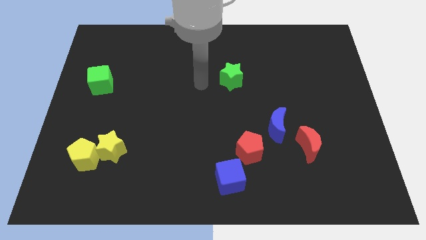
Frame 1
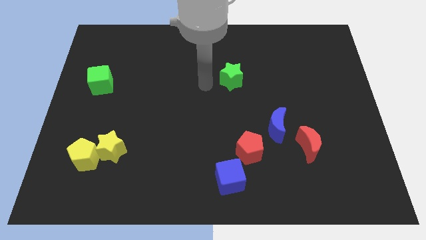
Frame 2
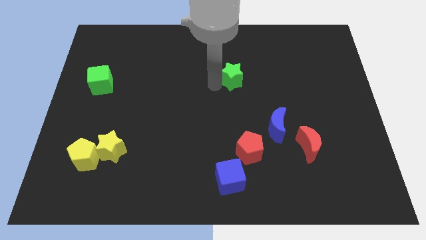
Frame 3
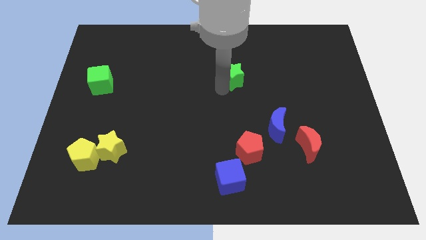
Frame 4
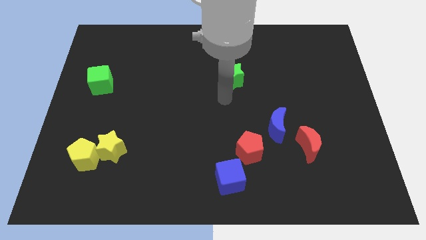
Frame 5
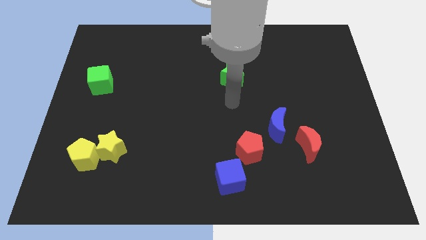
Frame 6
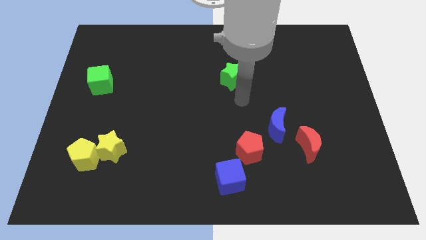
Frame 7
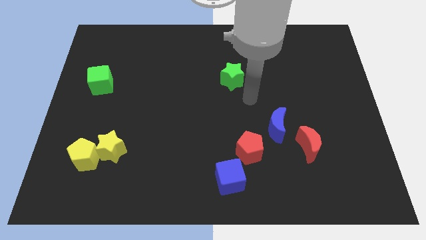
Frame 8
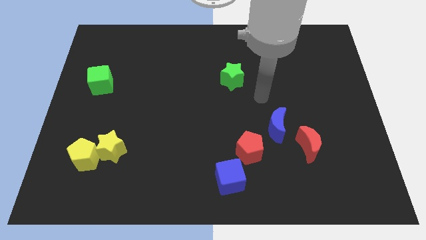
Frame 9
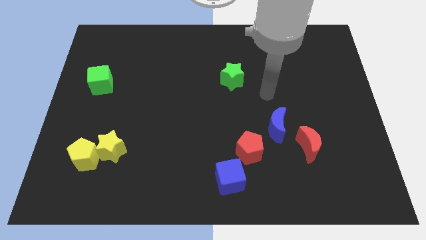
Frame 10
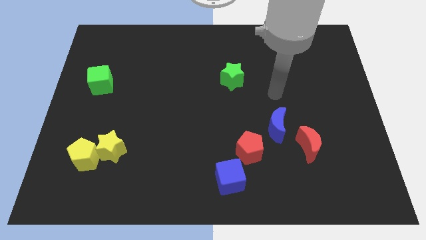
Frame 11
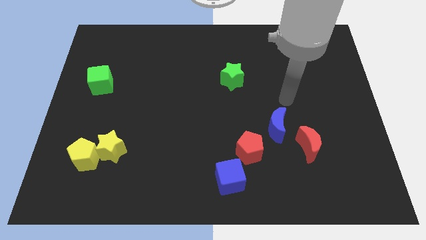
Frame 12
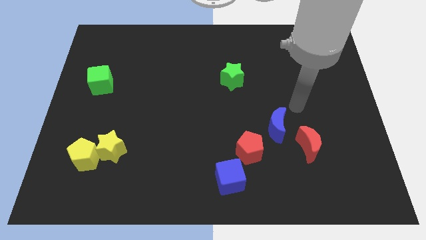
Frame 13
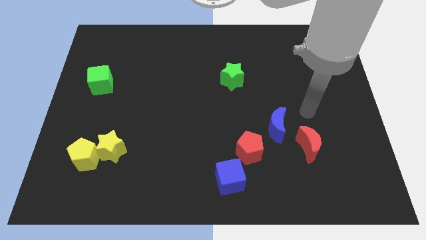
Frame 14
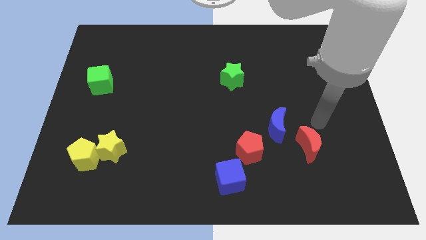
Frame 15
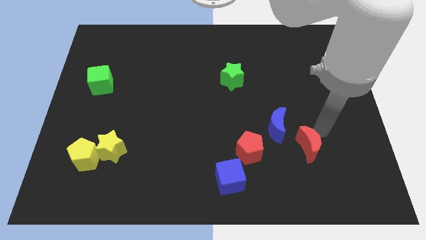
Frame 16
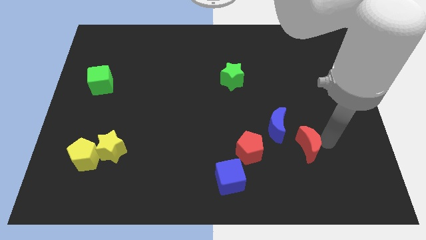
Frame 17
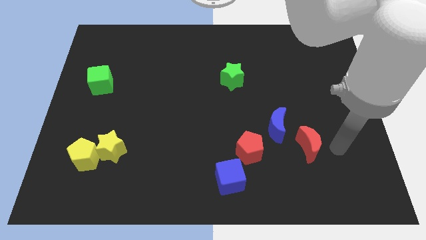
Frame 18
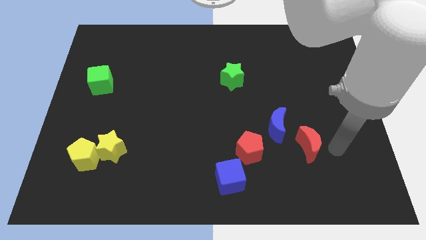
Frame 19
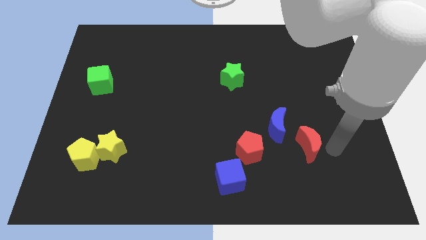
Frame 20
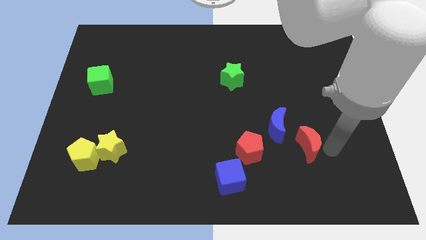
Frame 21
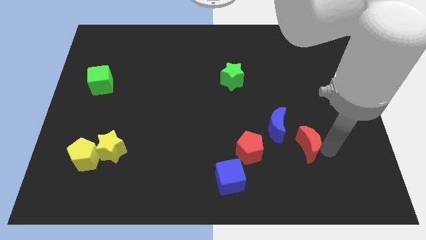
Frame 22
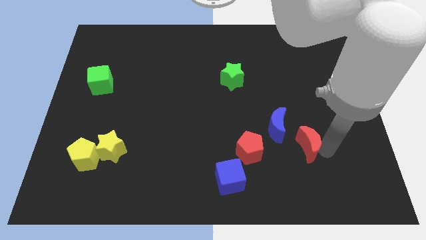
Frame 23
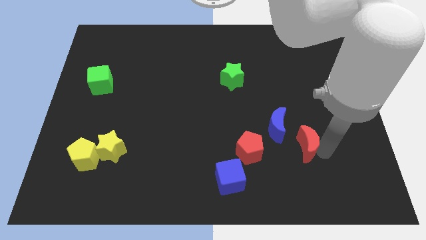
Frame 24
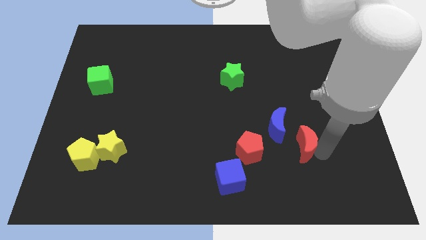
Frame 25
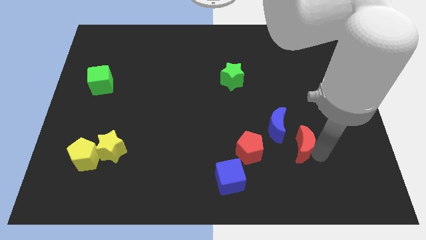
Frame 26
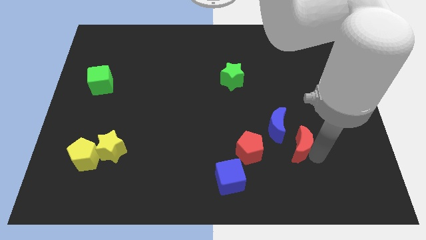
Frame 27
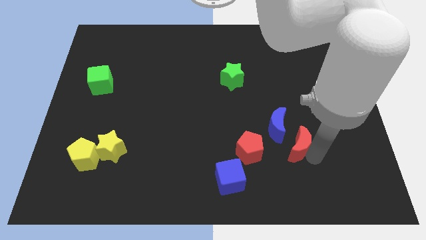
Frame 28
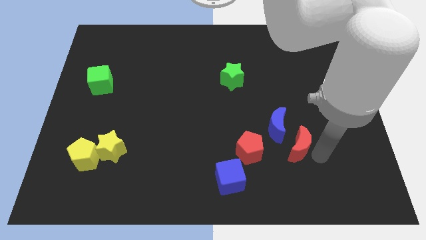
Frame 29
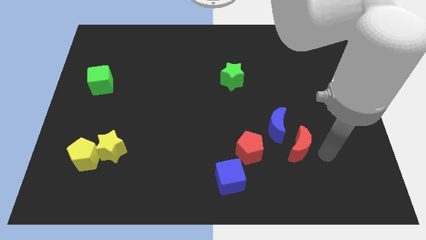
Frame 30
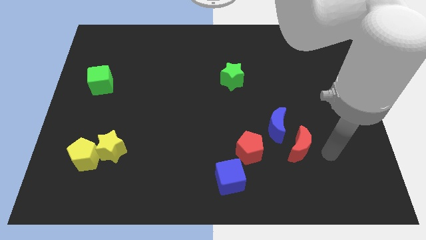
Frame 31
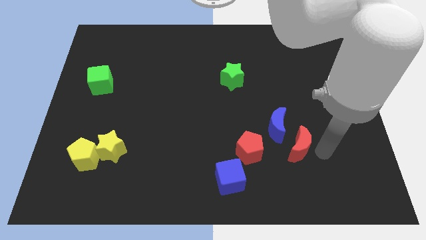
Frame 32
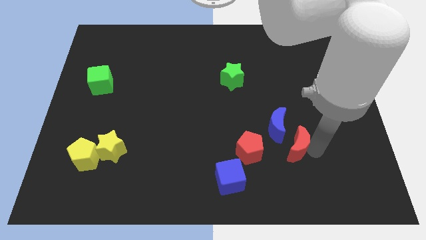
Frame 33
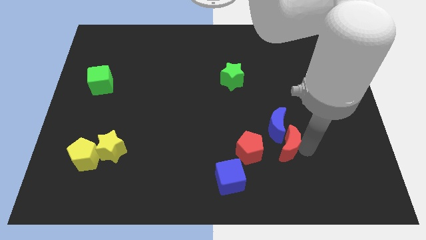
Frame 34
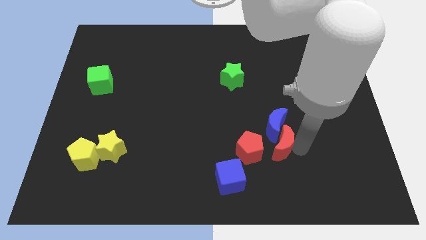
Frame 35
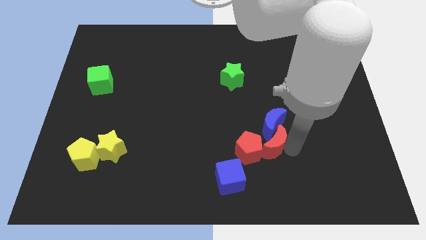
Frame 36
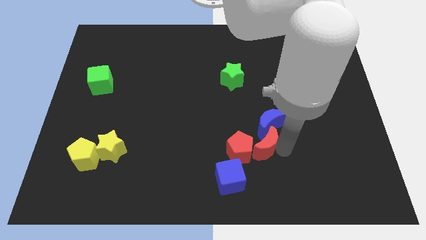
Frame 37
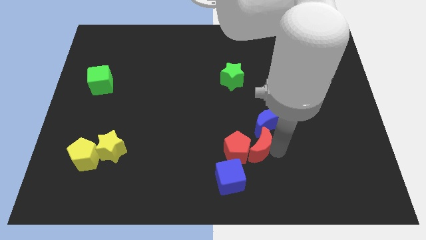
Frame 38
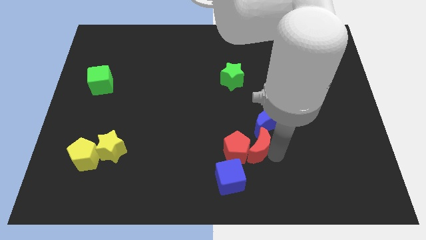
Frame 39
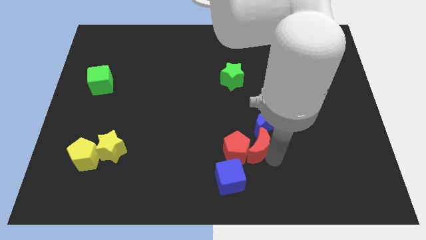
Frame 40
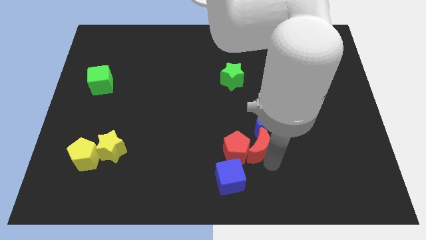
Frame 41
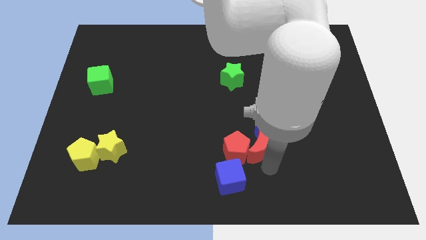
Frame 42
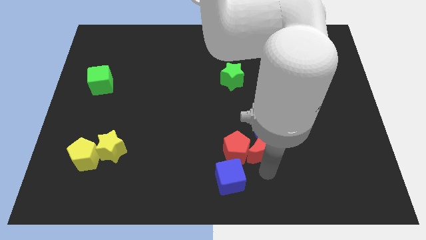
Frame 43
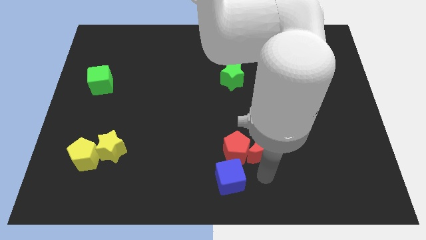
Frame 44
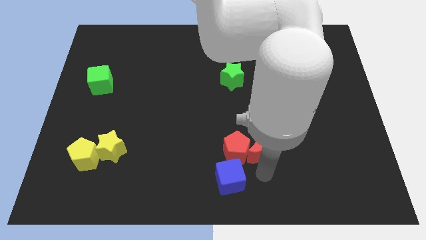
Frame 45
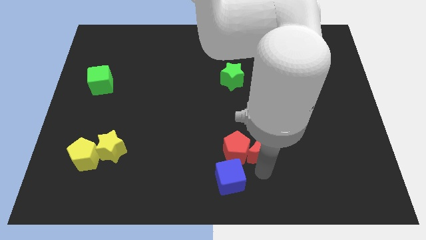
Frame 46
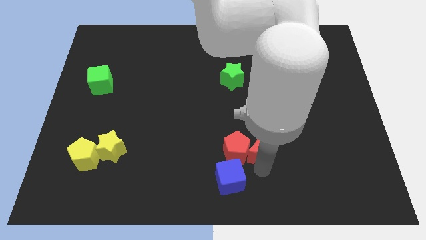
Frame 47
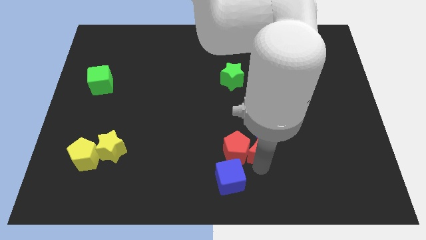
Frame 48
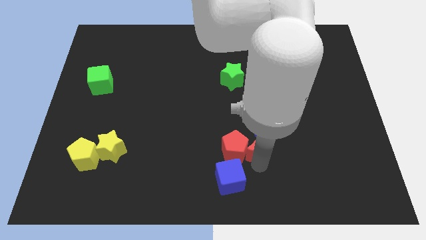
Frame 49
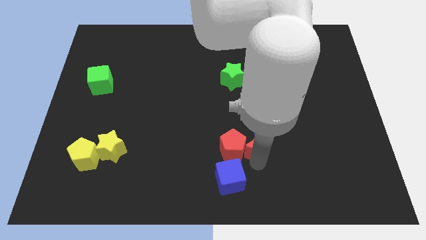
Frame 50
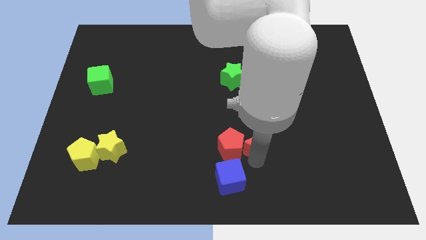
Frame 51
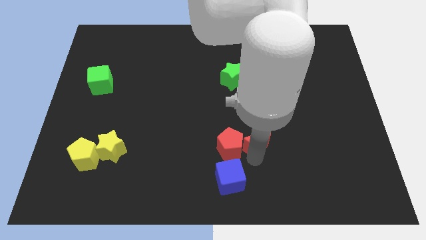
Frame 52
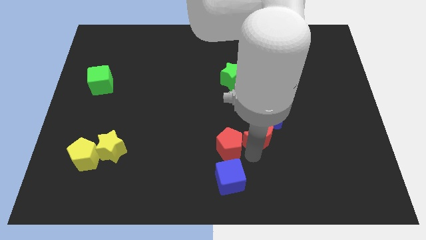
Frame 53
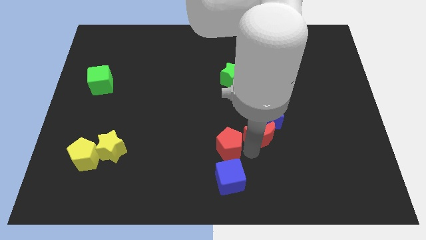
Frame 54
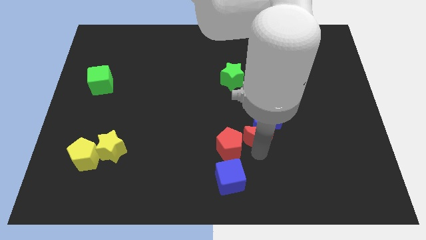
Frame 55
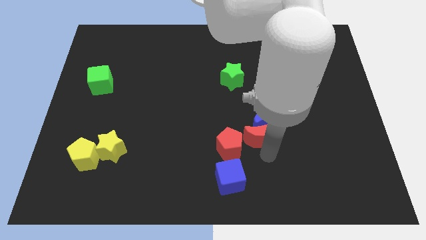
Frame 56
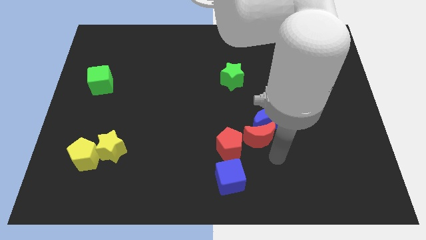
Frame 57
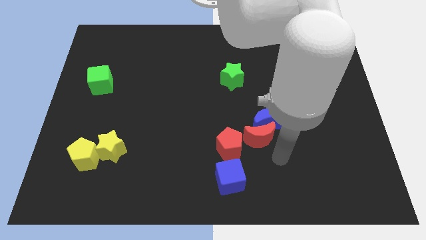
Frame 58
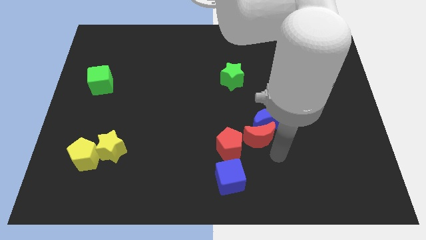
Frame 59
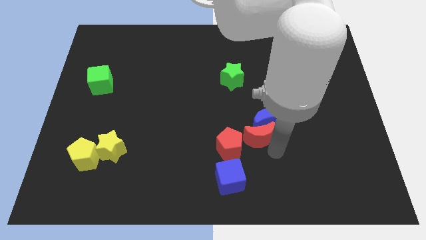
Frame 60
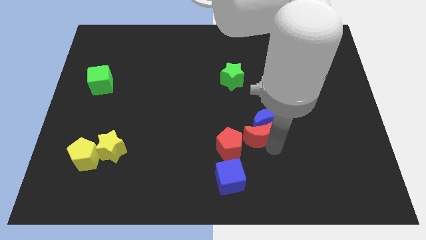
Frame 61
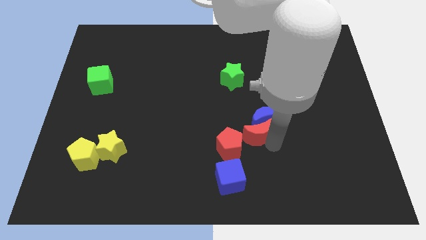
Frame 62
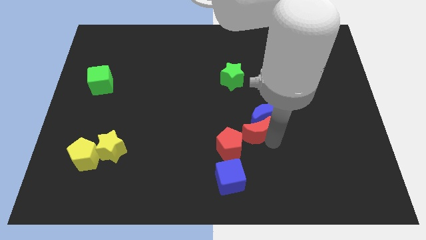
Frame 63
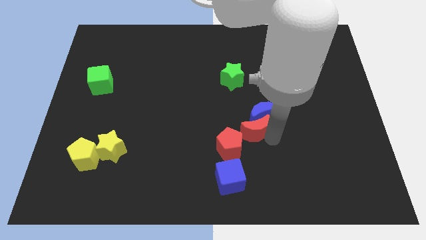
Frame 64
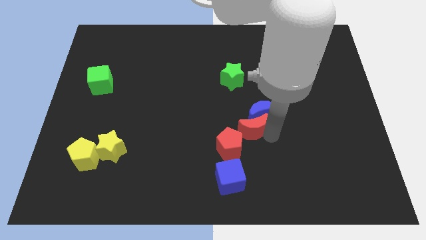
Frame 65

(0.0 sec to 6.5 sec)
slide the red moon to the middle of the board
